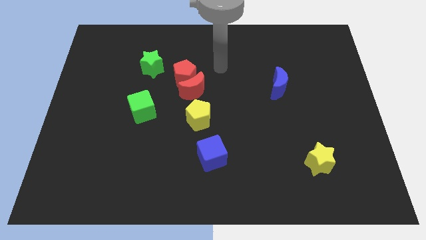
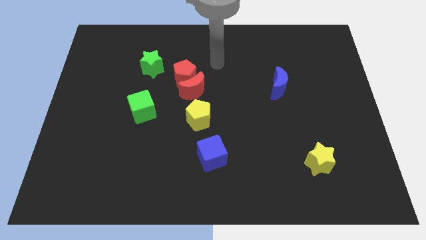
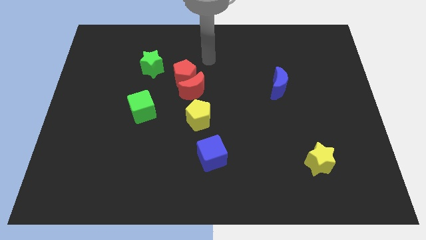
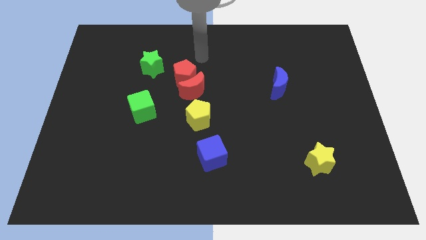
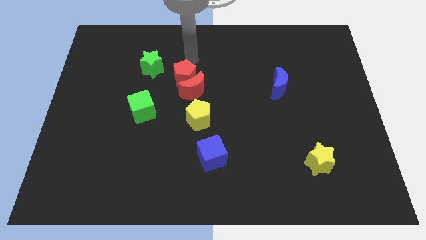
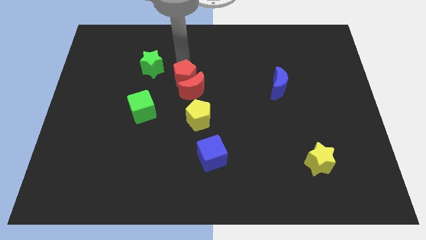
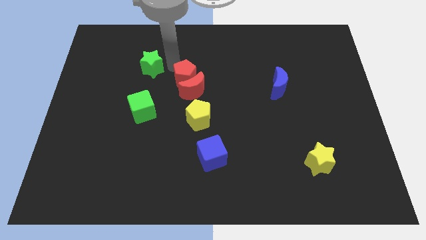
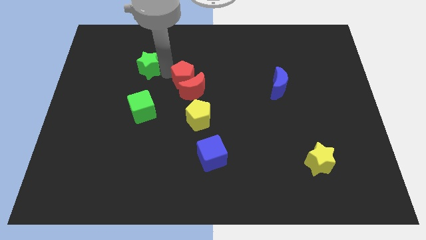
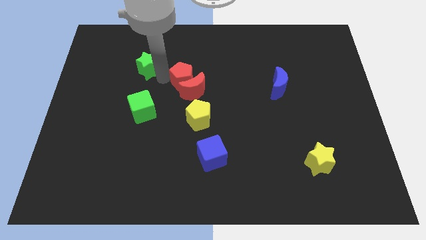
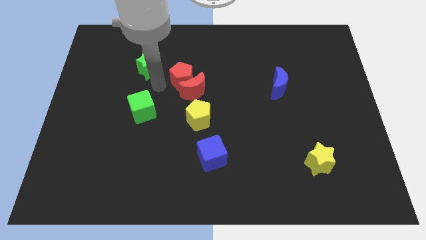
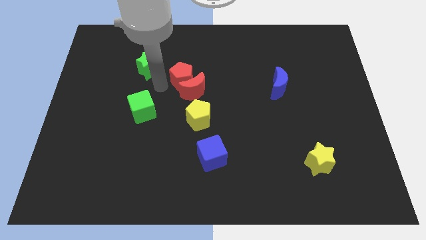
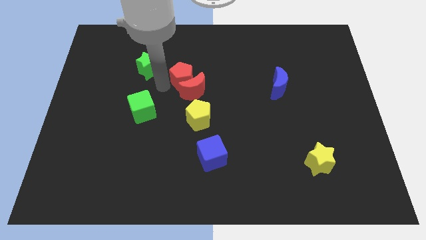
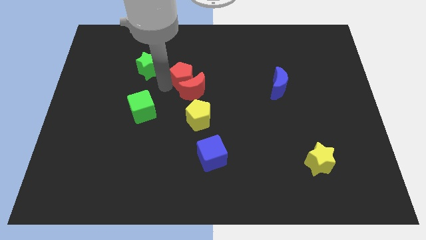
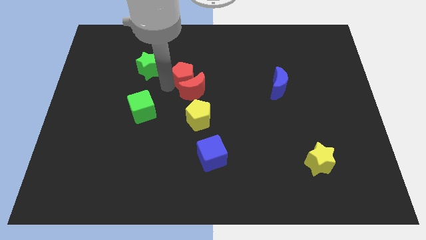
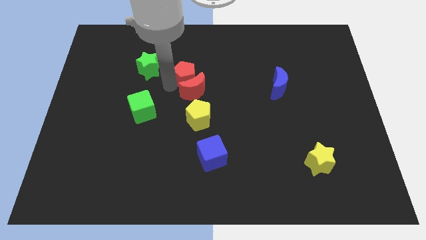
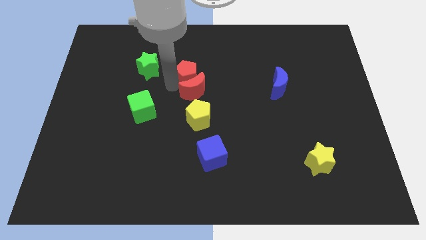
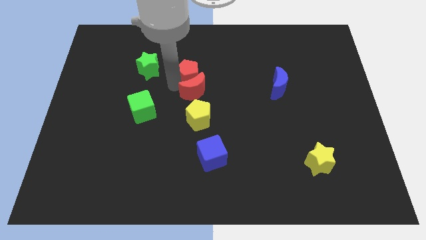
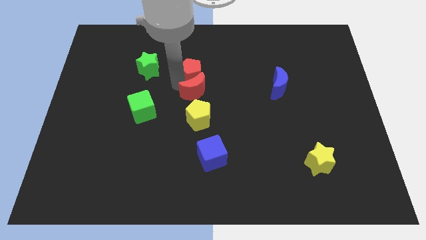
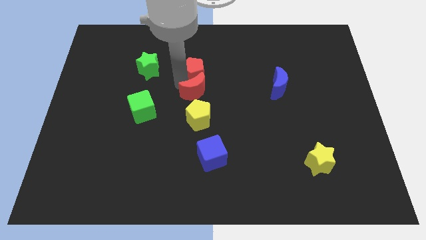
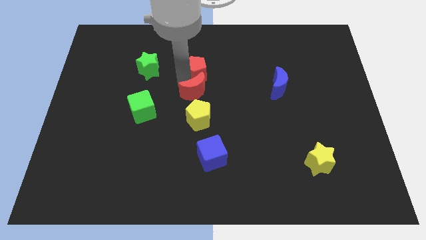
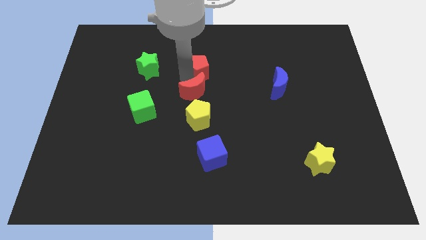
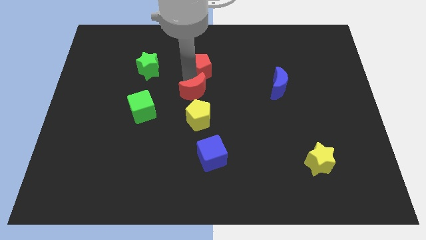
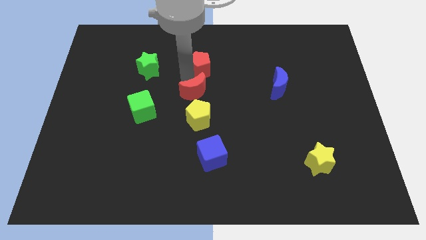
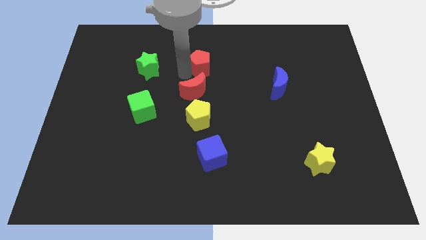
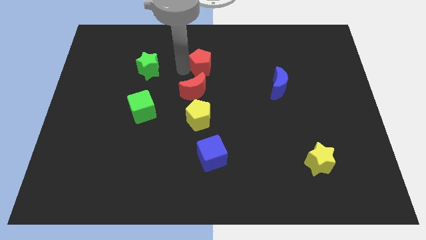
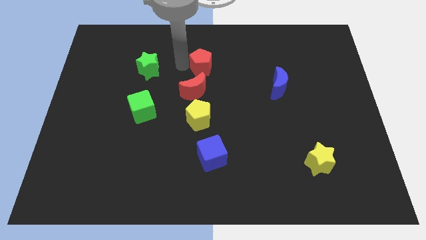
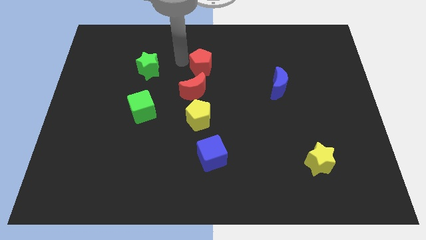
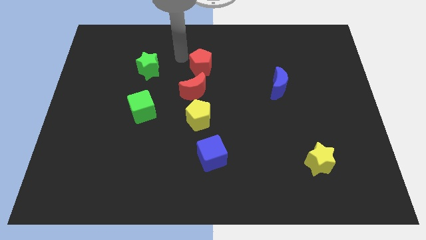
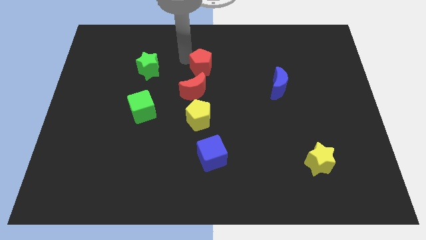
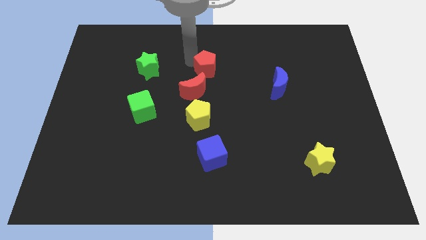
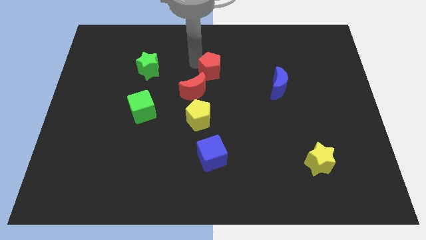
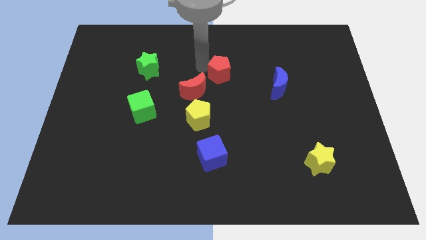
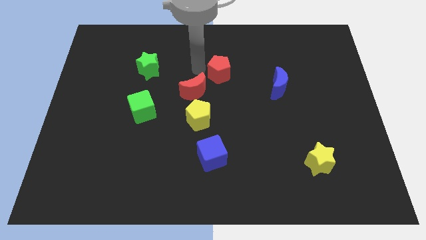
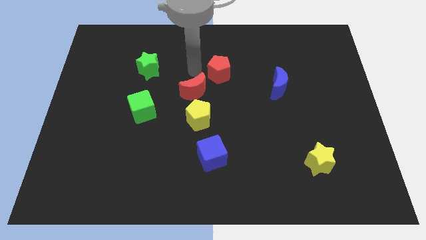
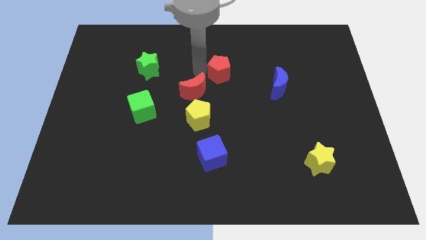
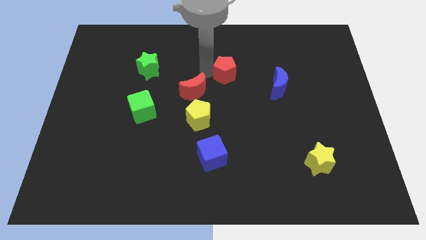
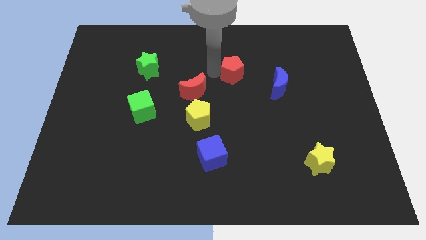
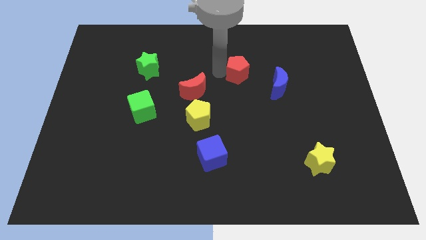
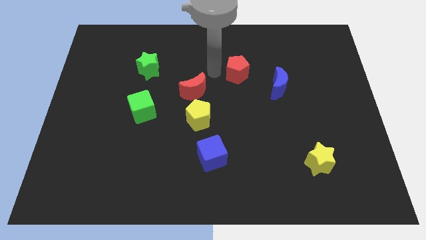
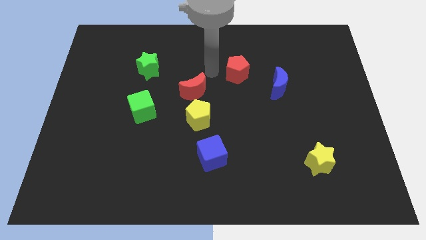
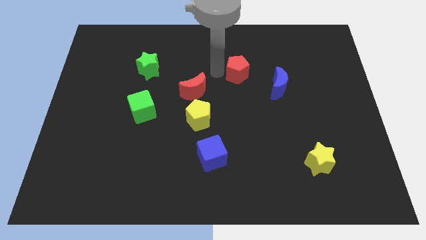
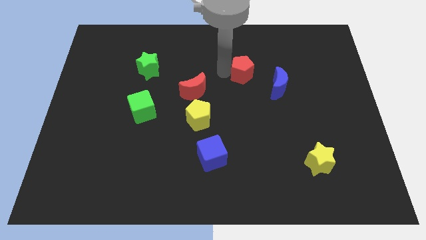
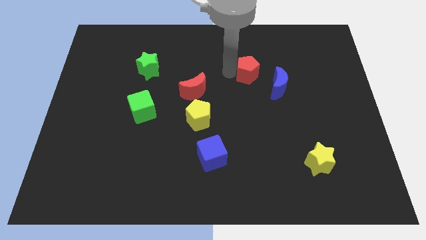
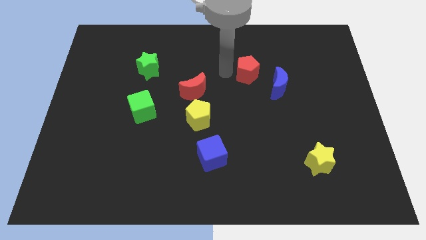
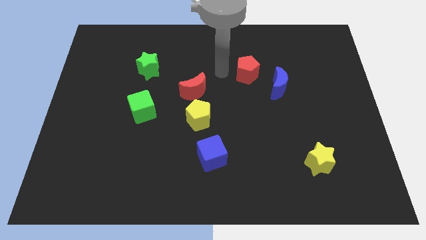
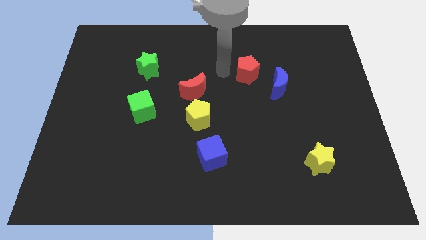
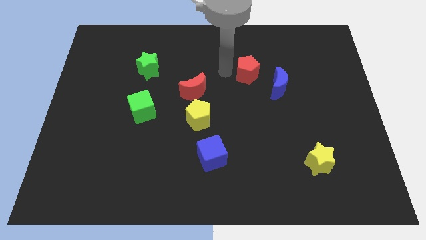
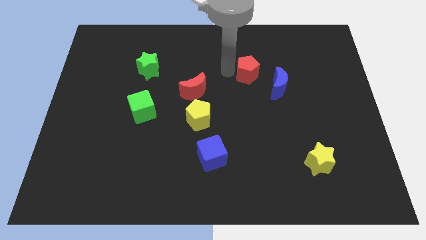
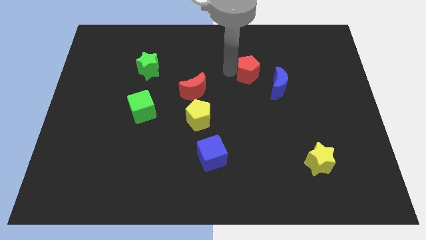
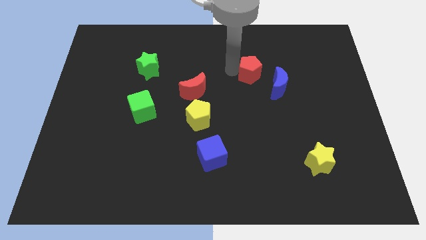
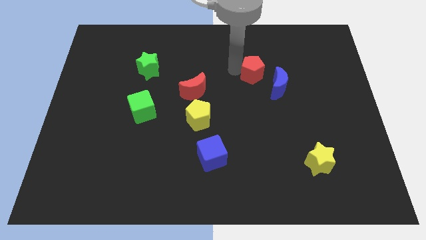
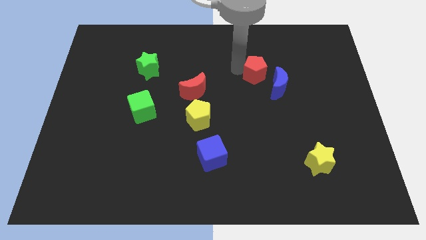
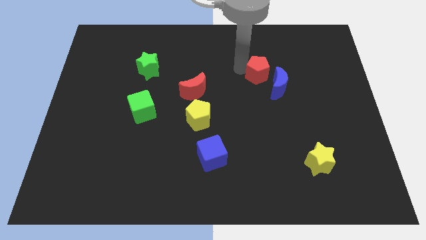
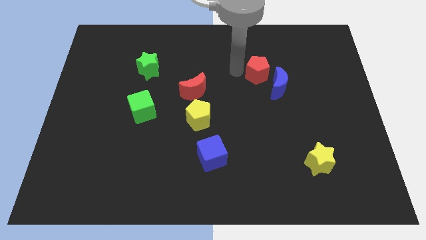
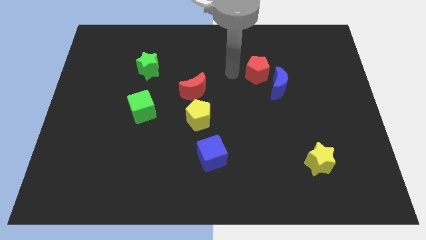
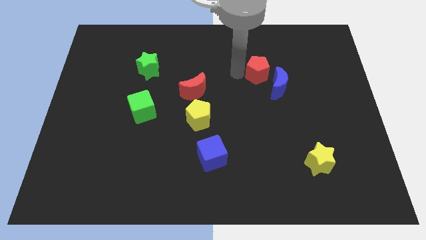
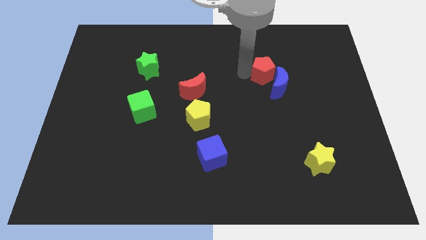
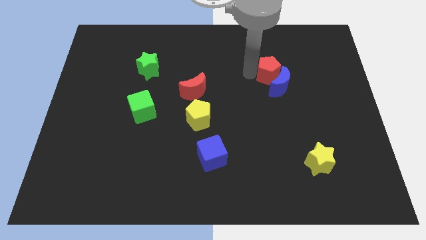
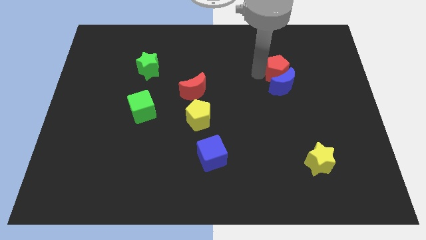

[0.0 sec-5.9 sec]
push the red pentagon to the top right side of the blue moon

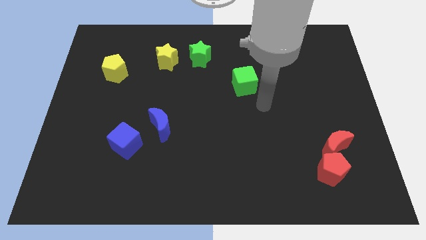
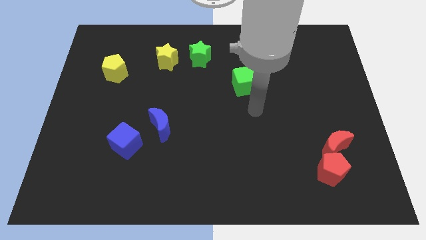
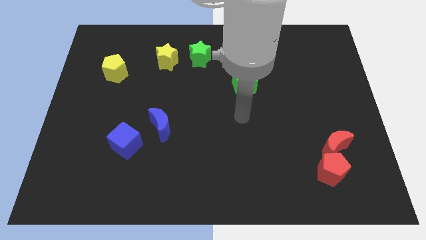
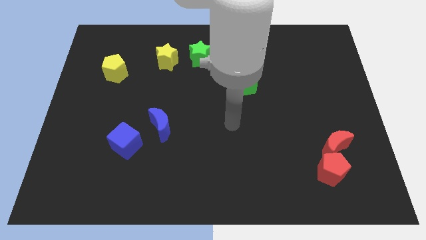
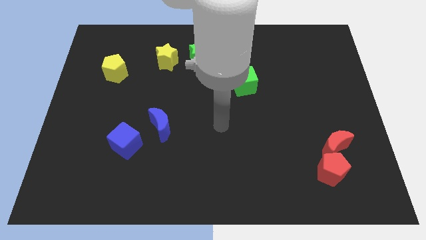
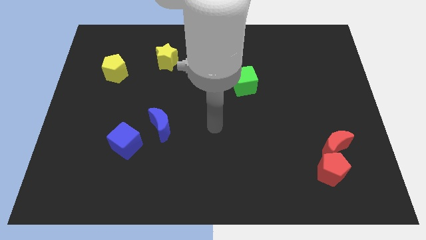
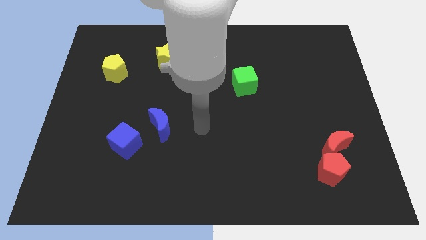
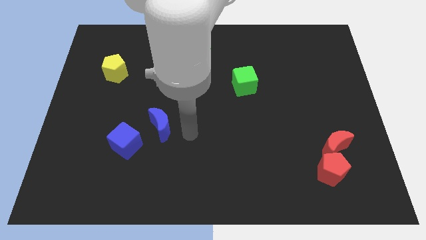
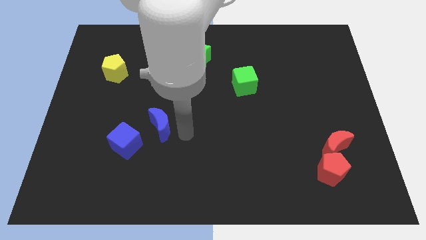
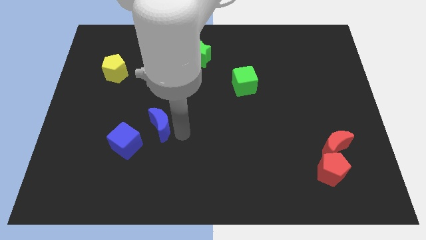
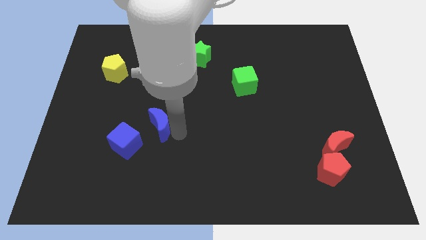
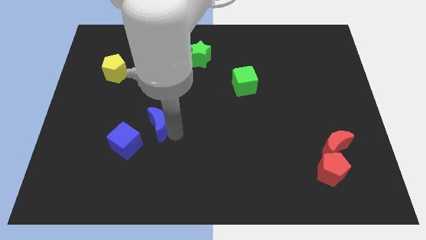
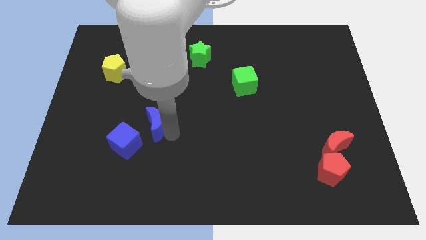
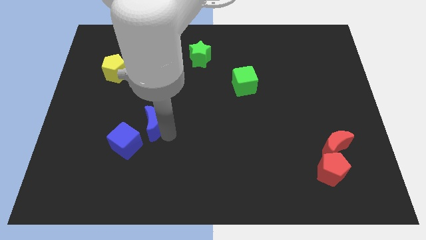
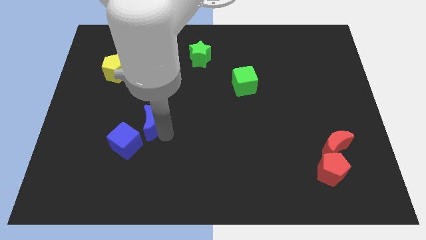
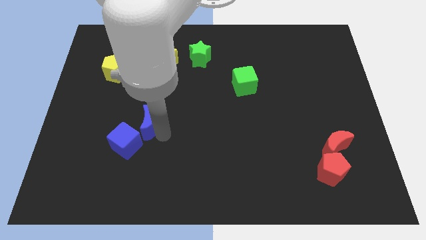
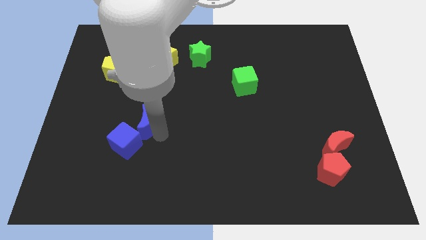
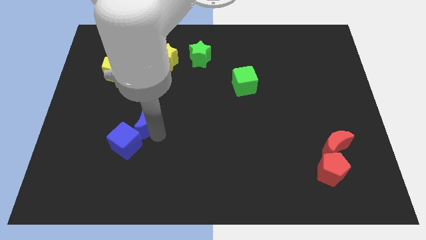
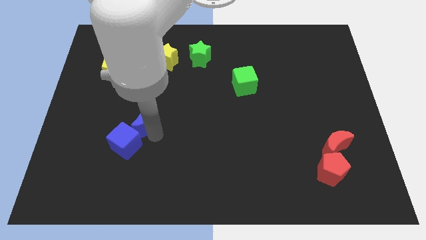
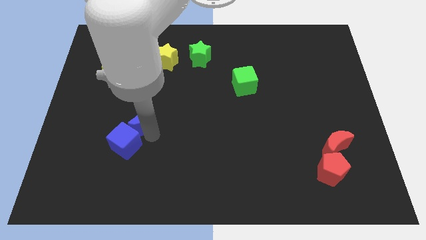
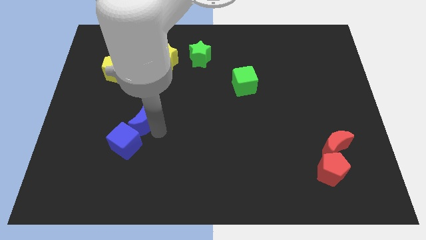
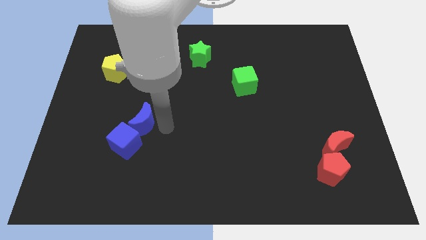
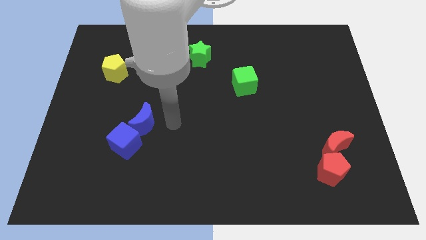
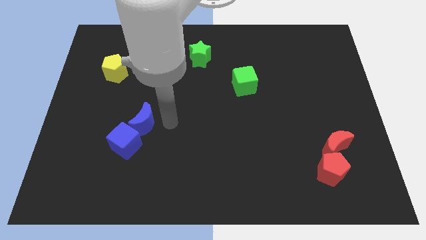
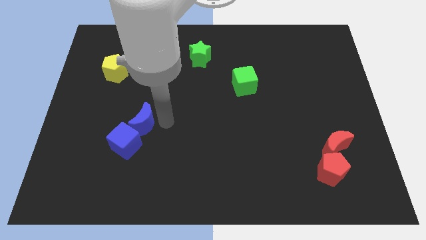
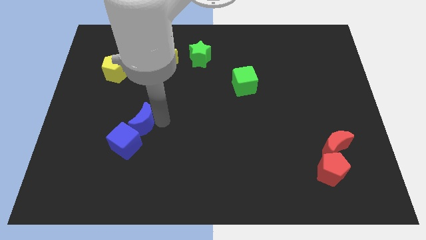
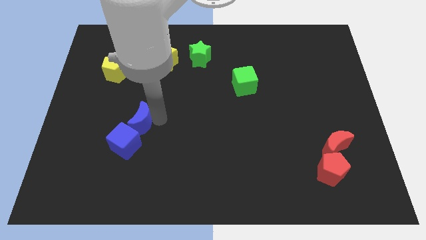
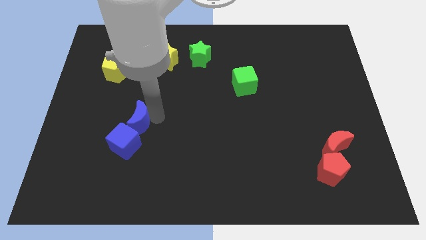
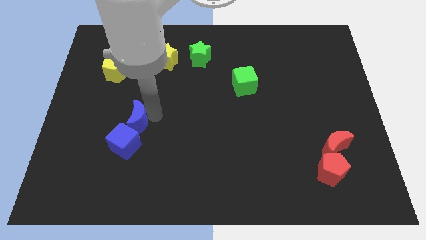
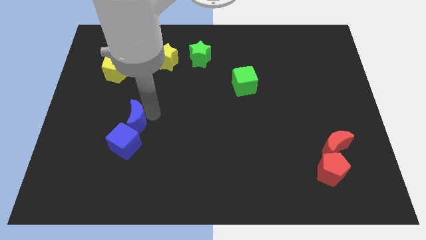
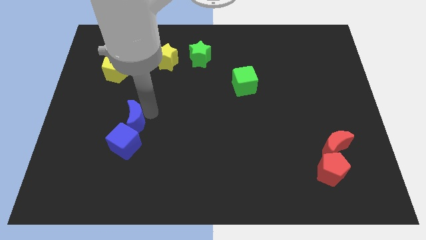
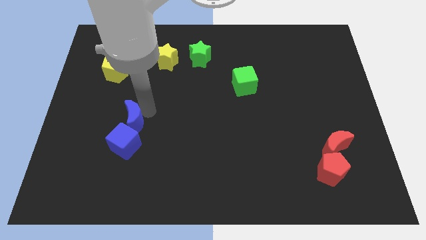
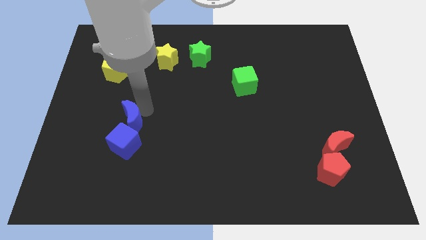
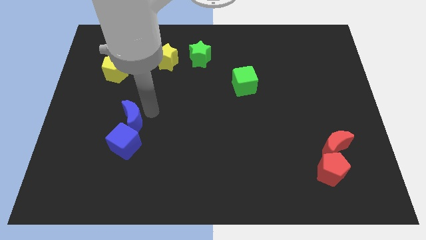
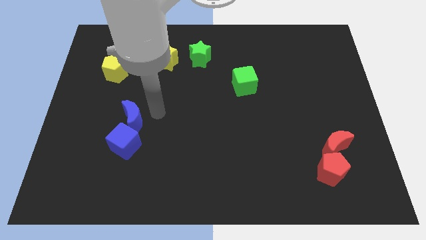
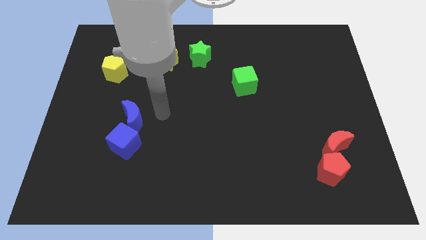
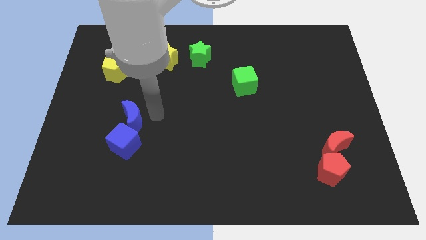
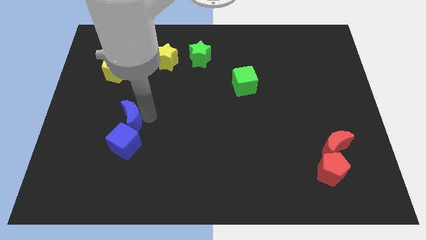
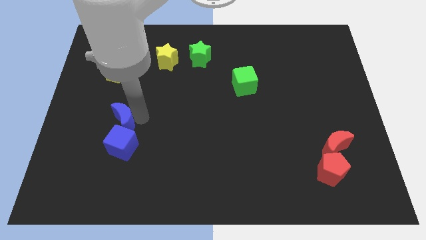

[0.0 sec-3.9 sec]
put the blue moon to the top left of the blue cube
